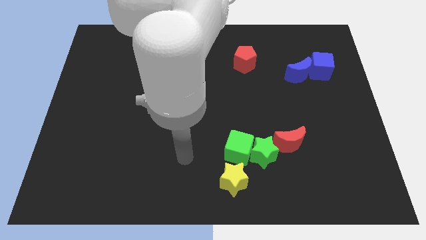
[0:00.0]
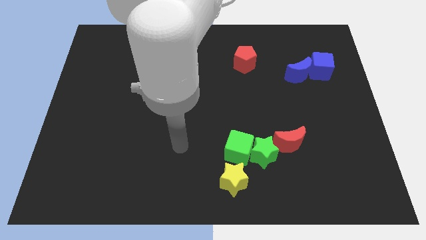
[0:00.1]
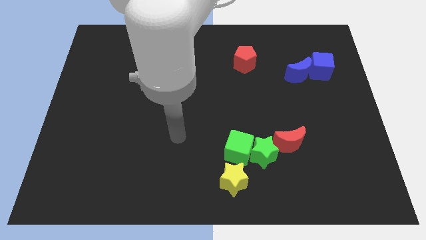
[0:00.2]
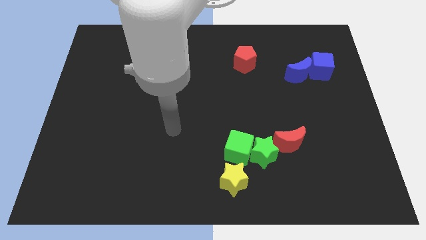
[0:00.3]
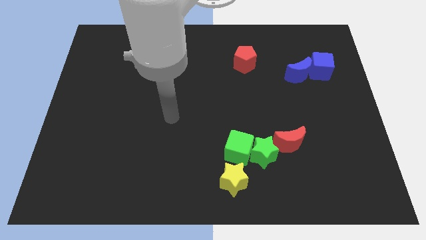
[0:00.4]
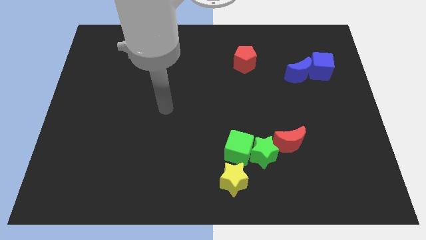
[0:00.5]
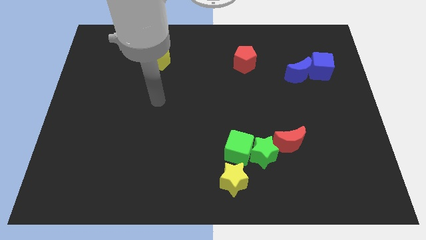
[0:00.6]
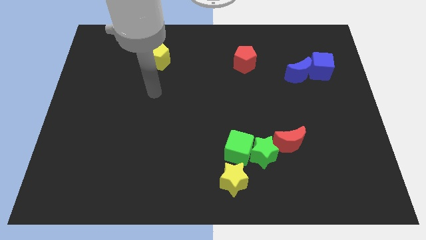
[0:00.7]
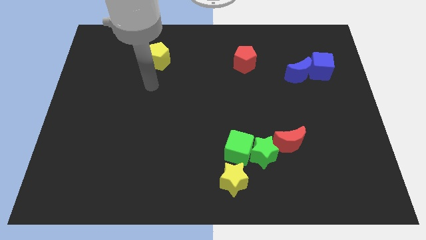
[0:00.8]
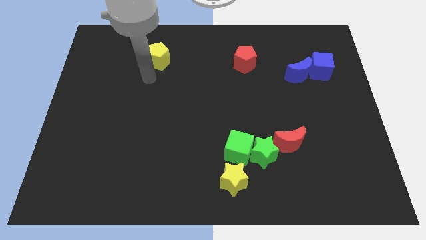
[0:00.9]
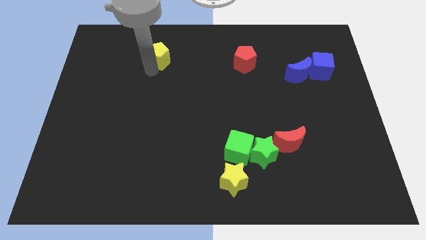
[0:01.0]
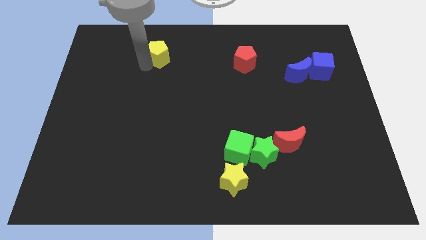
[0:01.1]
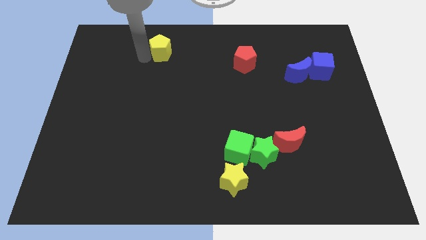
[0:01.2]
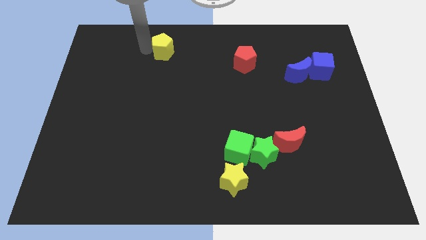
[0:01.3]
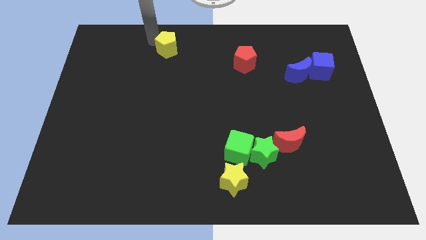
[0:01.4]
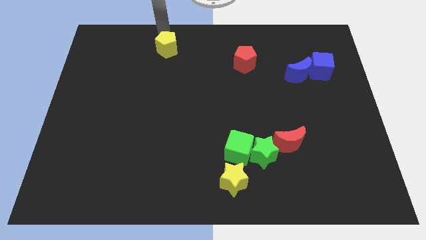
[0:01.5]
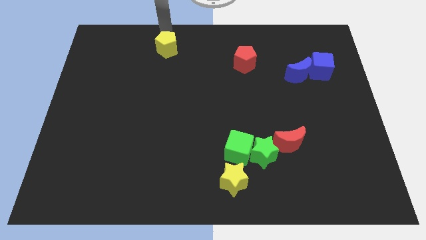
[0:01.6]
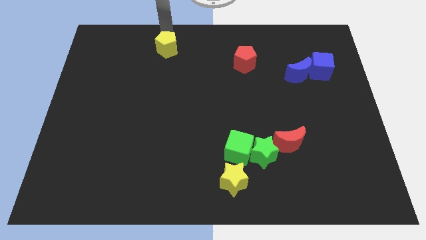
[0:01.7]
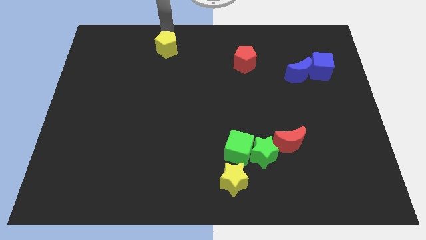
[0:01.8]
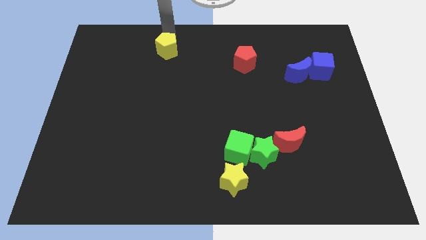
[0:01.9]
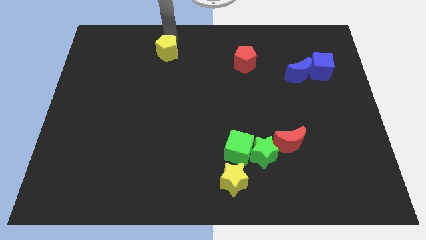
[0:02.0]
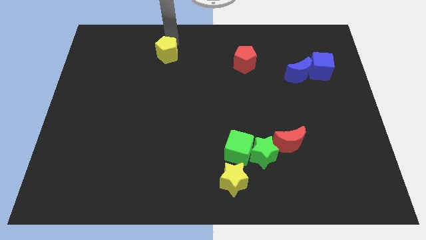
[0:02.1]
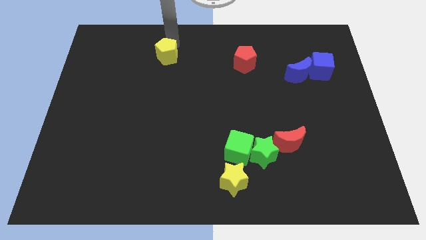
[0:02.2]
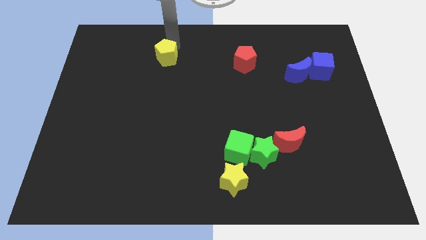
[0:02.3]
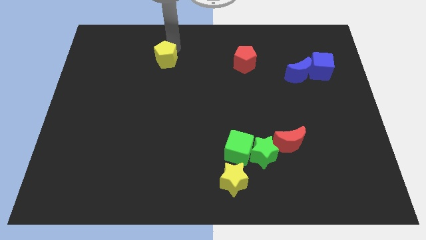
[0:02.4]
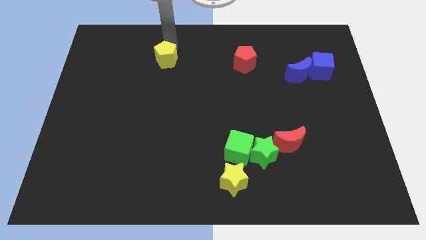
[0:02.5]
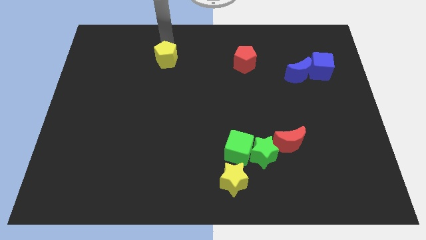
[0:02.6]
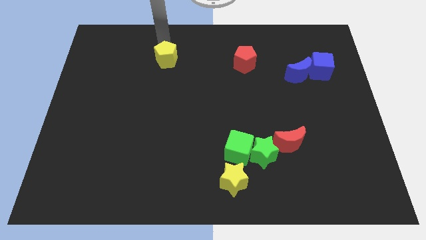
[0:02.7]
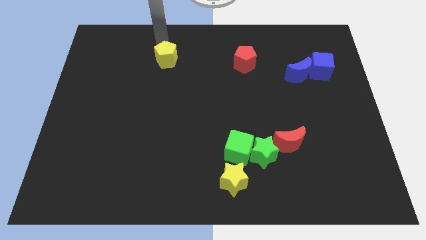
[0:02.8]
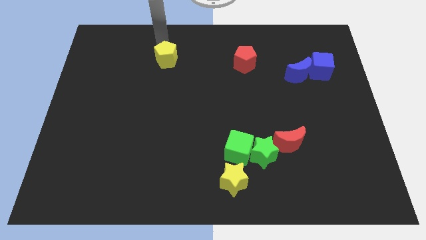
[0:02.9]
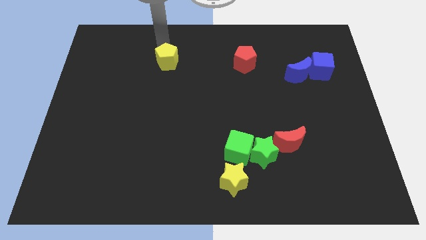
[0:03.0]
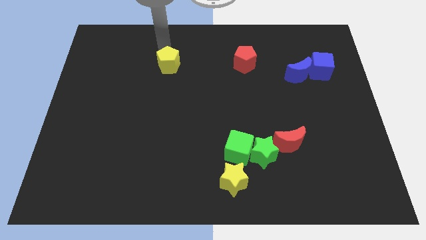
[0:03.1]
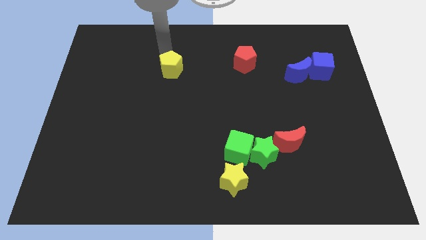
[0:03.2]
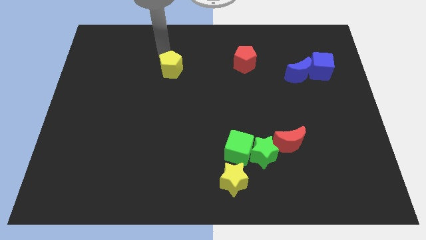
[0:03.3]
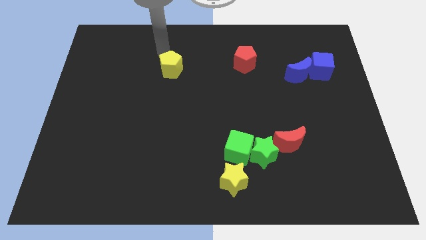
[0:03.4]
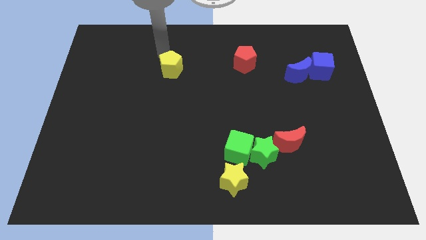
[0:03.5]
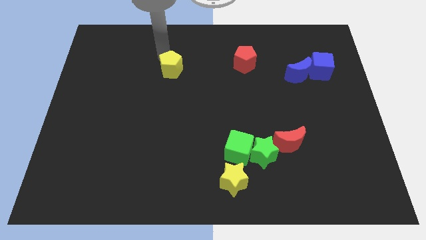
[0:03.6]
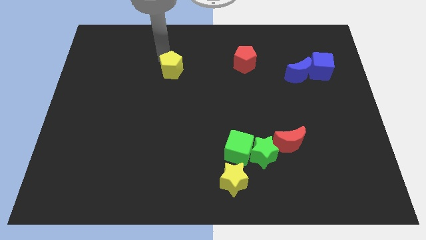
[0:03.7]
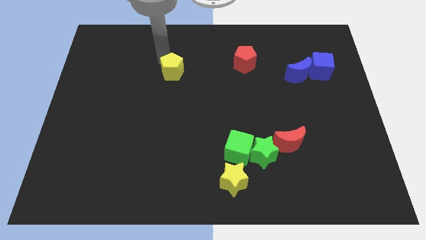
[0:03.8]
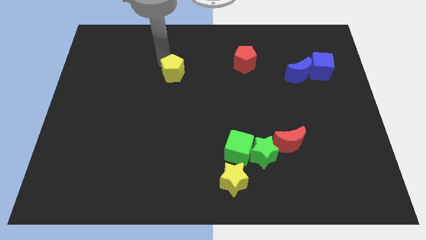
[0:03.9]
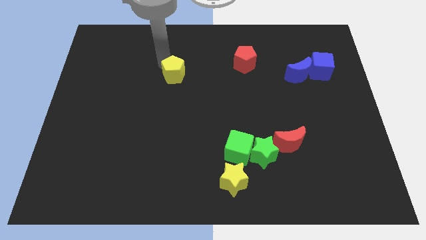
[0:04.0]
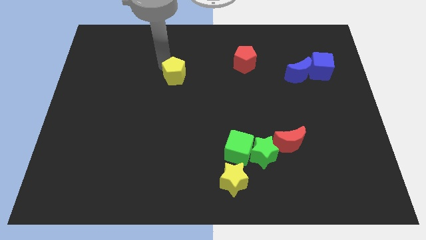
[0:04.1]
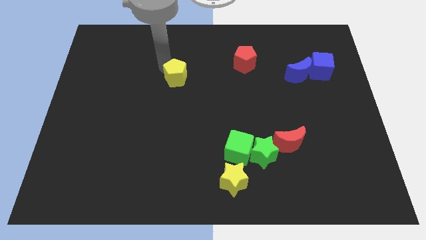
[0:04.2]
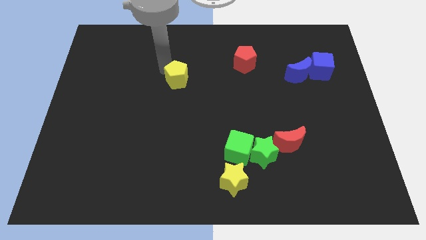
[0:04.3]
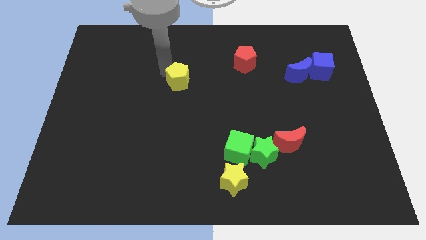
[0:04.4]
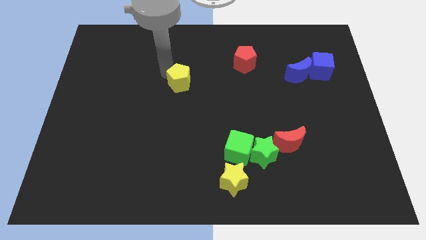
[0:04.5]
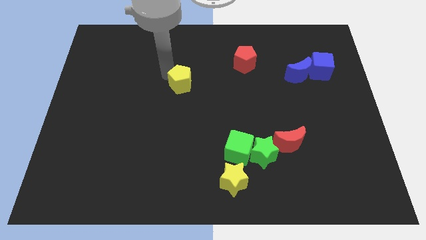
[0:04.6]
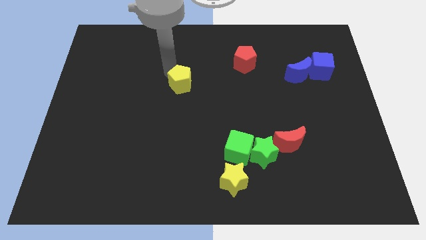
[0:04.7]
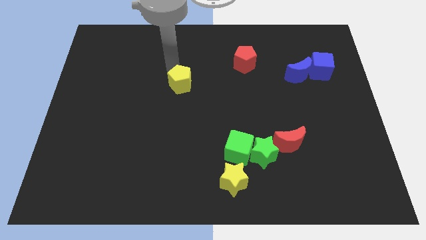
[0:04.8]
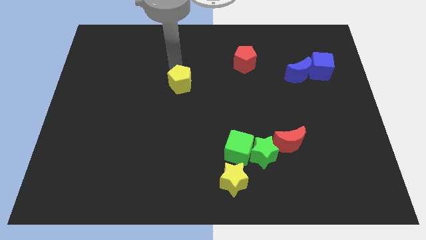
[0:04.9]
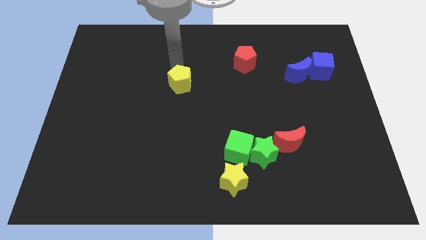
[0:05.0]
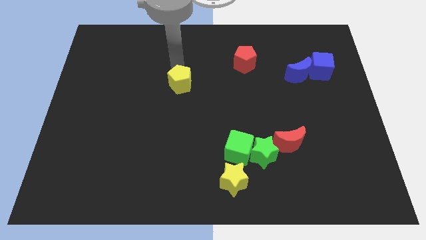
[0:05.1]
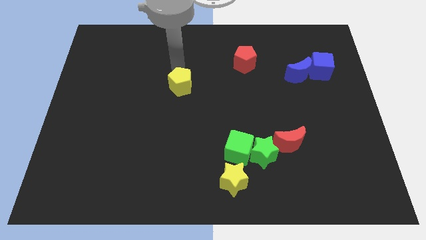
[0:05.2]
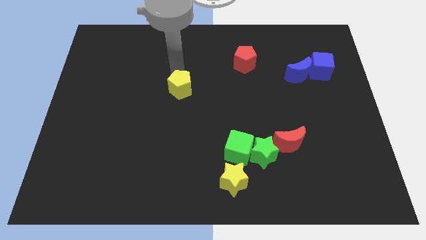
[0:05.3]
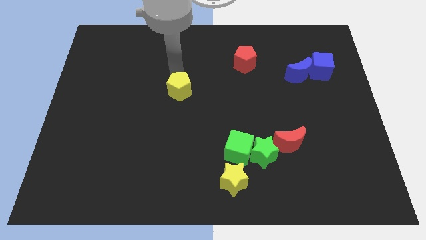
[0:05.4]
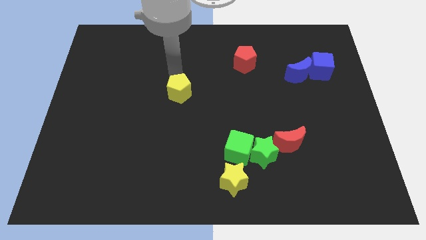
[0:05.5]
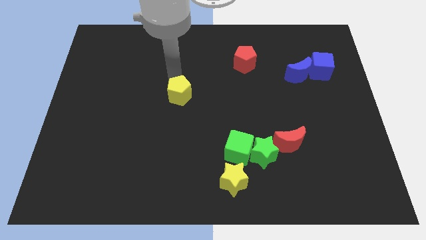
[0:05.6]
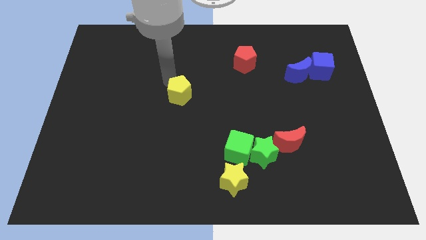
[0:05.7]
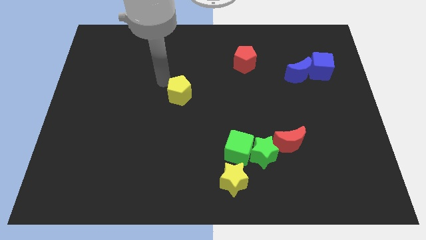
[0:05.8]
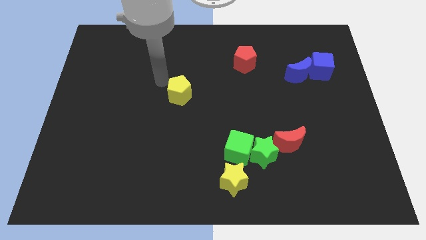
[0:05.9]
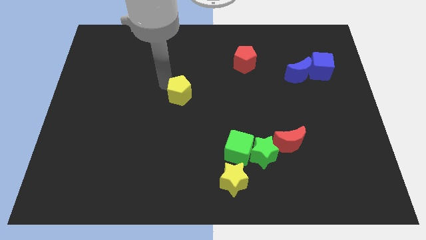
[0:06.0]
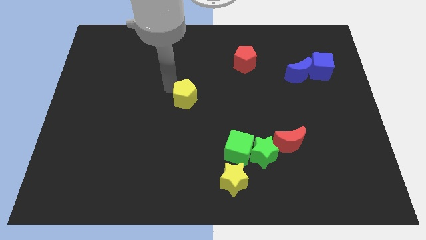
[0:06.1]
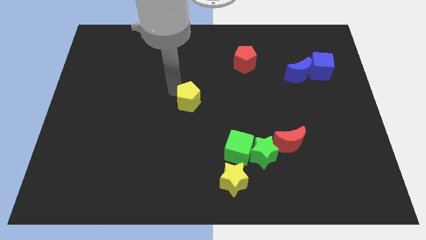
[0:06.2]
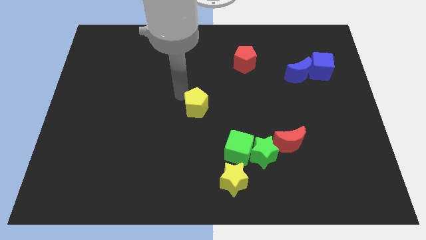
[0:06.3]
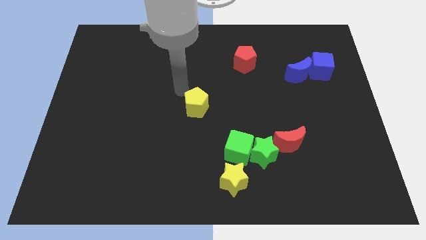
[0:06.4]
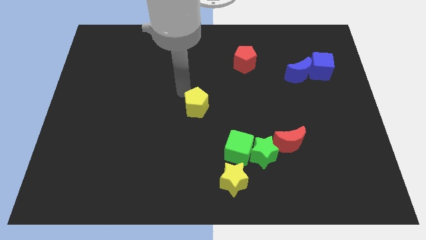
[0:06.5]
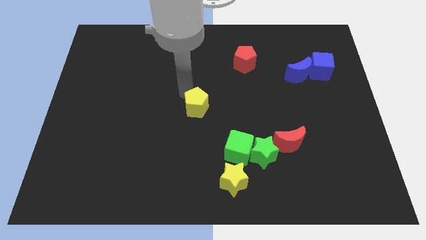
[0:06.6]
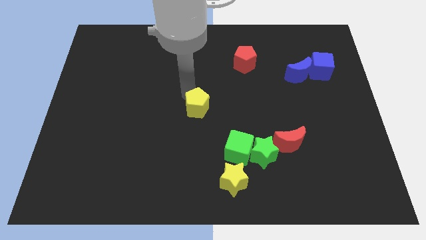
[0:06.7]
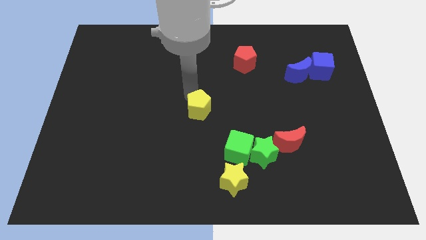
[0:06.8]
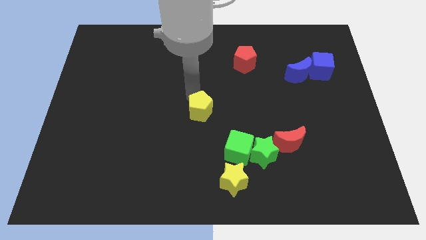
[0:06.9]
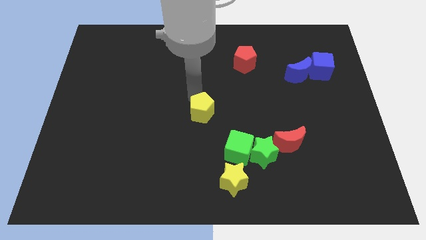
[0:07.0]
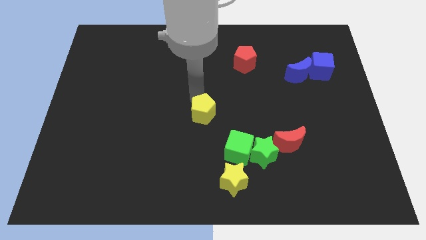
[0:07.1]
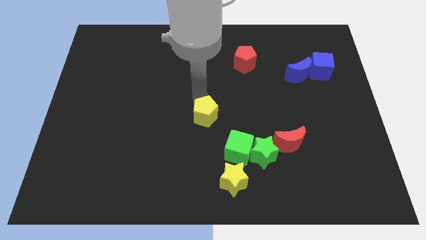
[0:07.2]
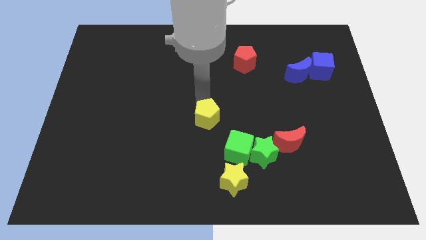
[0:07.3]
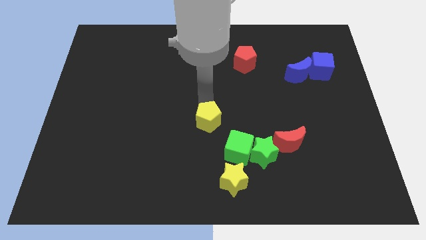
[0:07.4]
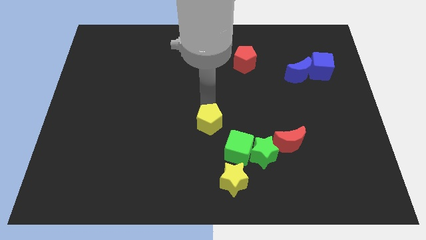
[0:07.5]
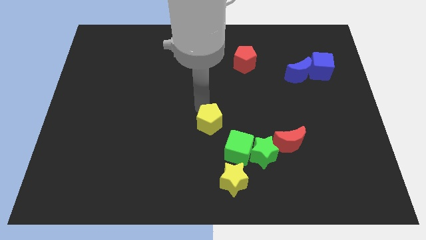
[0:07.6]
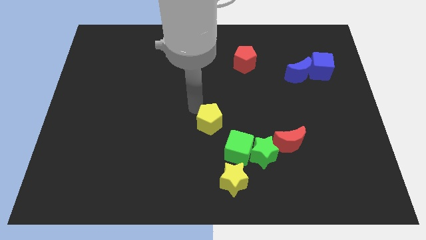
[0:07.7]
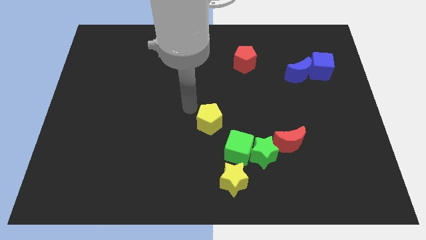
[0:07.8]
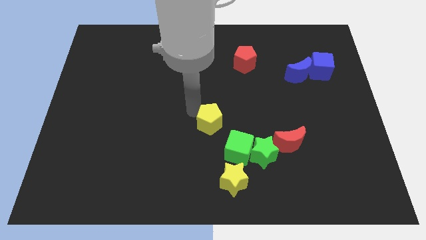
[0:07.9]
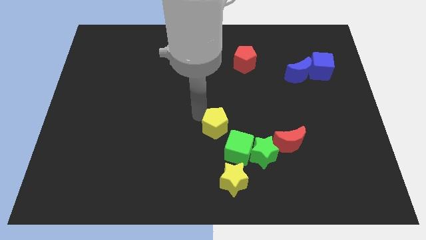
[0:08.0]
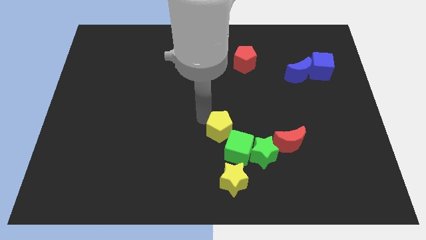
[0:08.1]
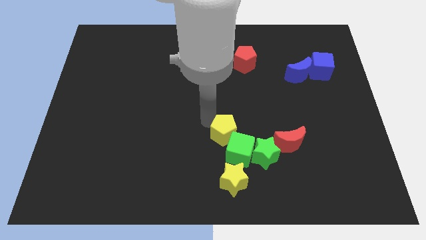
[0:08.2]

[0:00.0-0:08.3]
move the yellow pentagon close to the green cube
